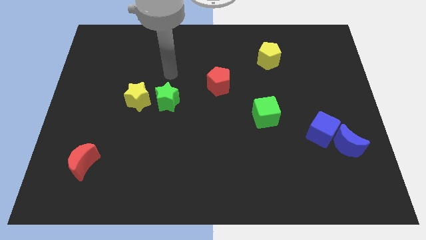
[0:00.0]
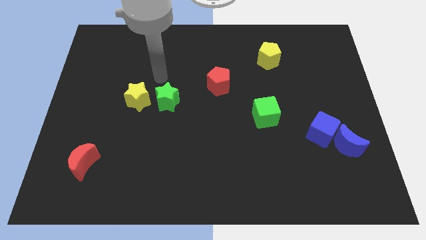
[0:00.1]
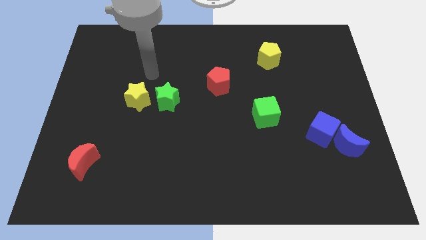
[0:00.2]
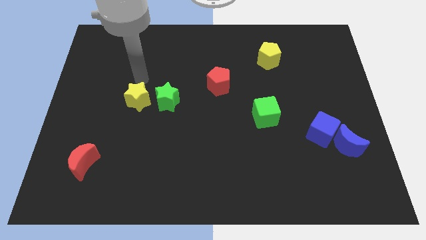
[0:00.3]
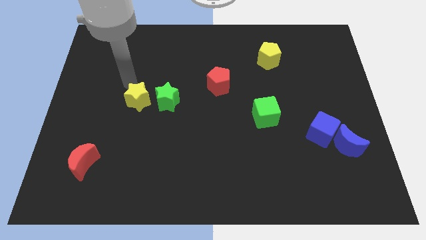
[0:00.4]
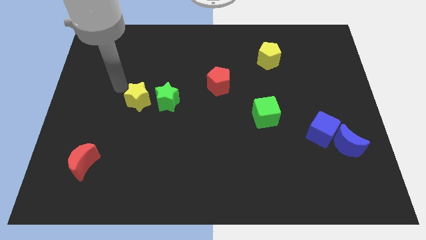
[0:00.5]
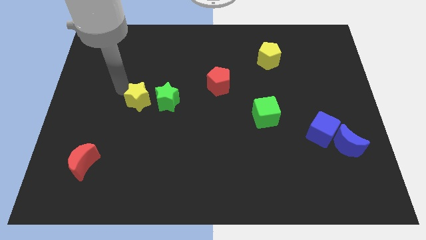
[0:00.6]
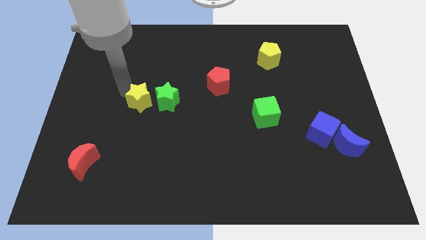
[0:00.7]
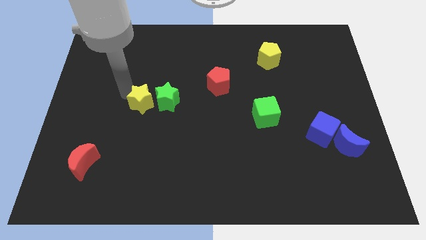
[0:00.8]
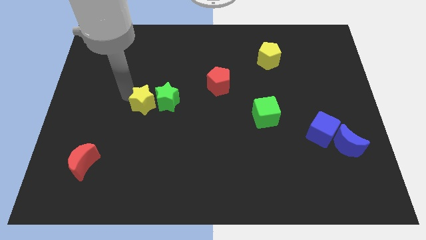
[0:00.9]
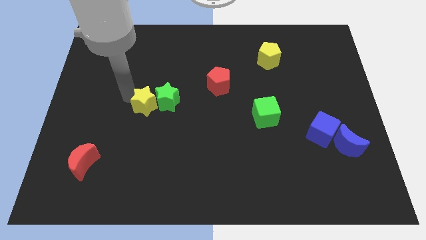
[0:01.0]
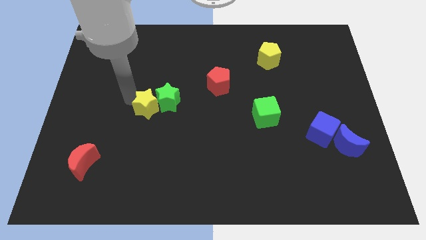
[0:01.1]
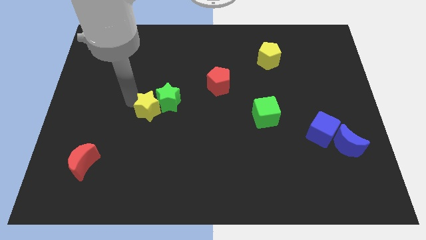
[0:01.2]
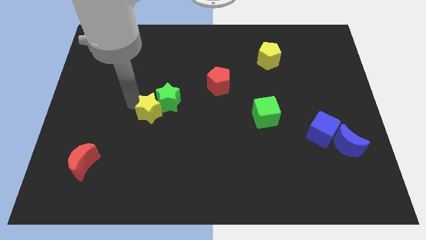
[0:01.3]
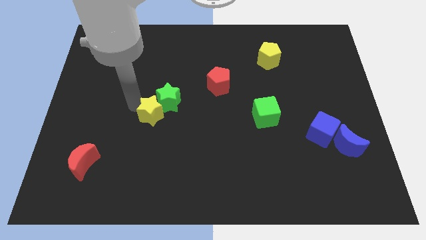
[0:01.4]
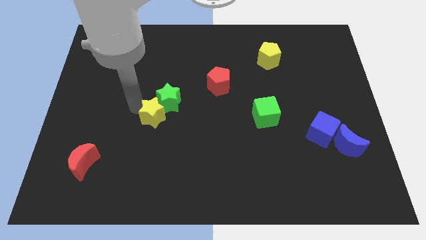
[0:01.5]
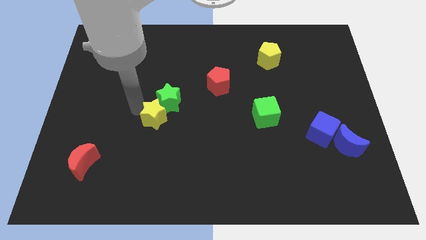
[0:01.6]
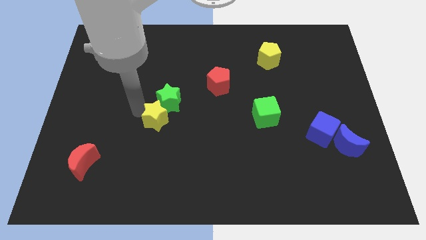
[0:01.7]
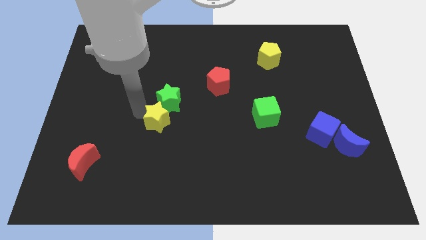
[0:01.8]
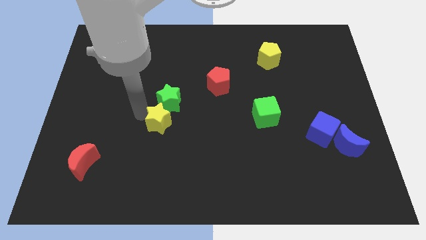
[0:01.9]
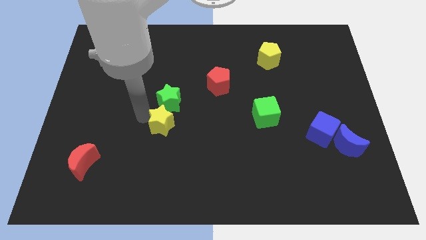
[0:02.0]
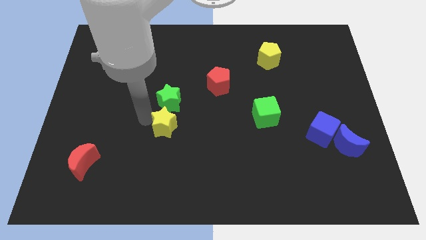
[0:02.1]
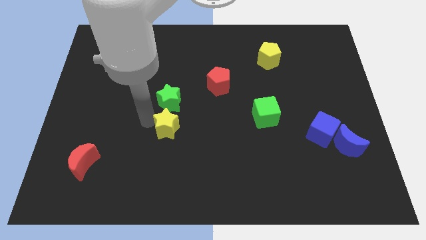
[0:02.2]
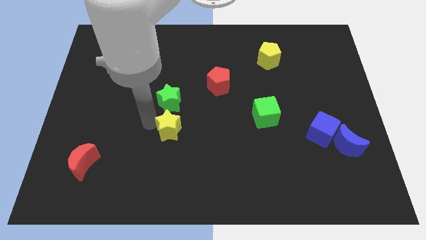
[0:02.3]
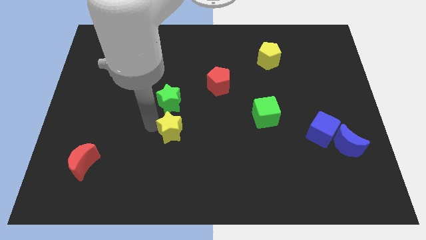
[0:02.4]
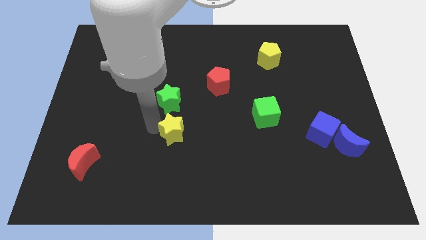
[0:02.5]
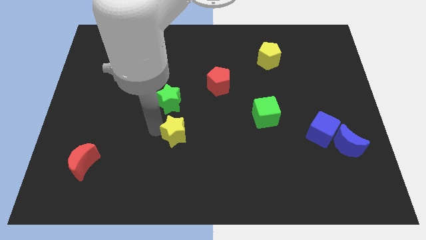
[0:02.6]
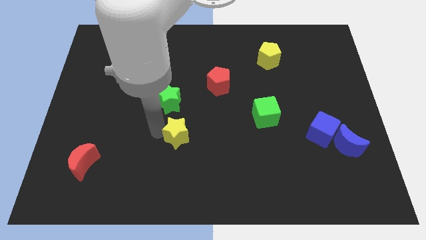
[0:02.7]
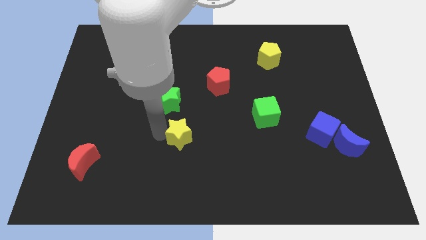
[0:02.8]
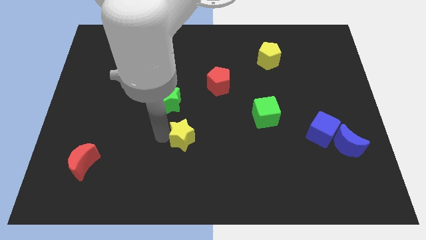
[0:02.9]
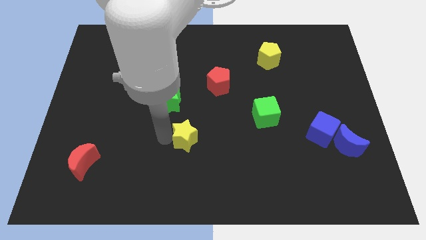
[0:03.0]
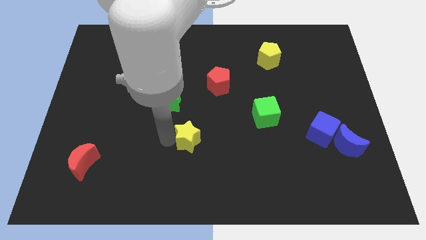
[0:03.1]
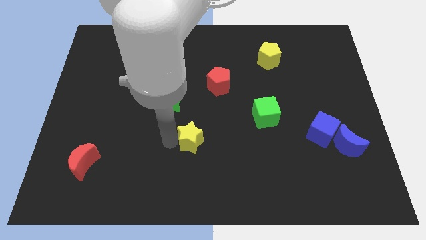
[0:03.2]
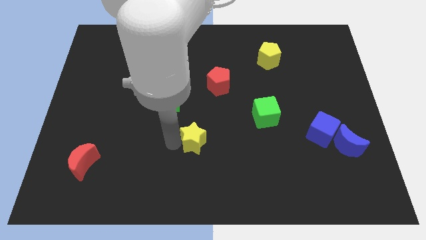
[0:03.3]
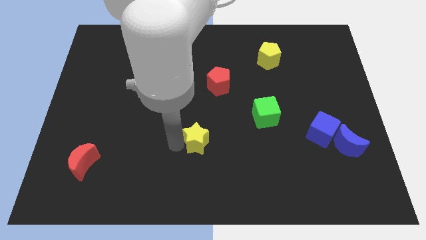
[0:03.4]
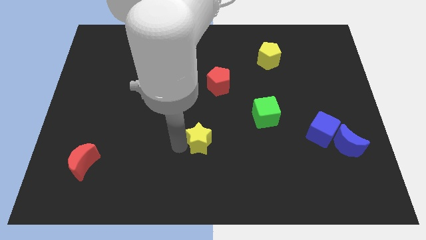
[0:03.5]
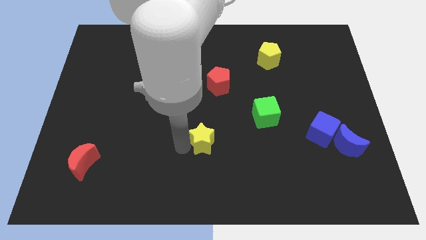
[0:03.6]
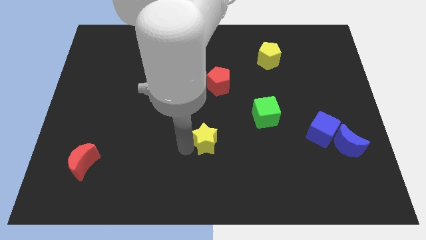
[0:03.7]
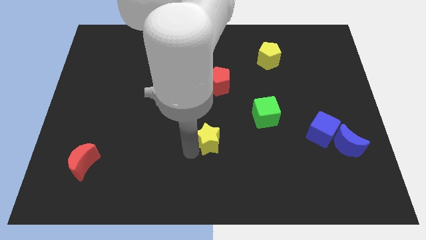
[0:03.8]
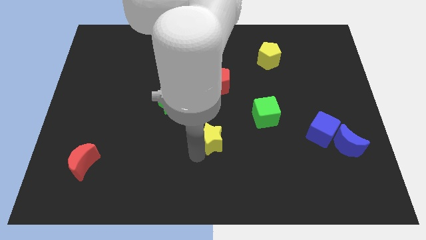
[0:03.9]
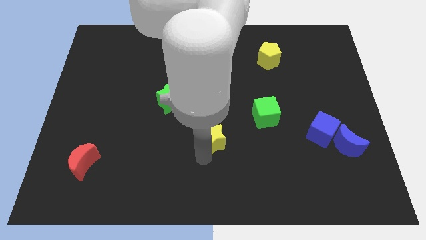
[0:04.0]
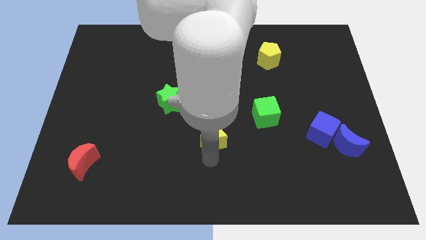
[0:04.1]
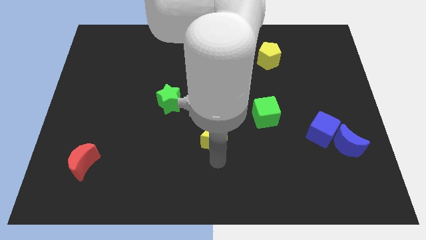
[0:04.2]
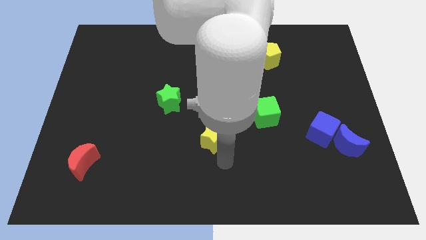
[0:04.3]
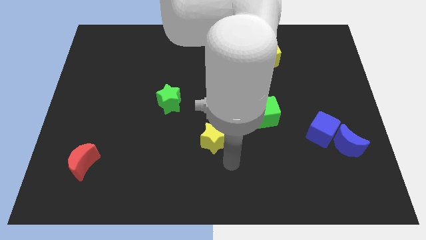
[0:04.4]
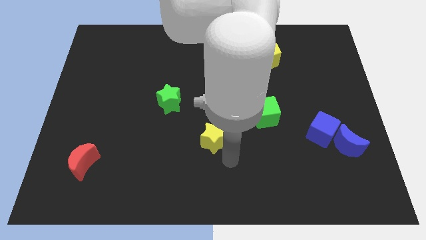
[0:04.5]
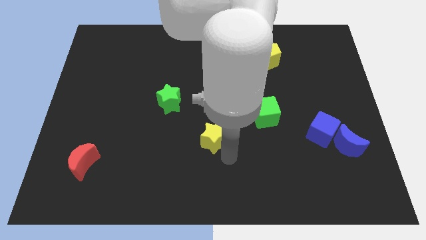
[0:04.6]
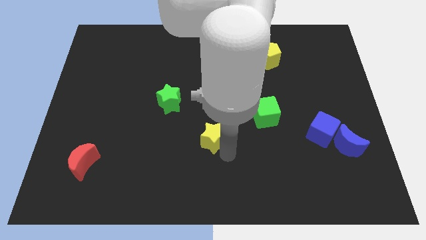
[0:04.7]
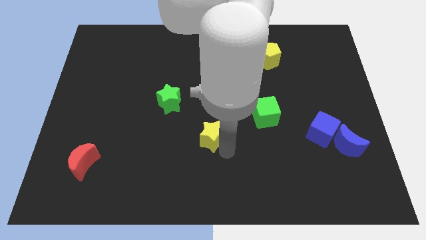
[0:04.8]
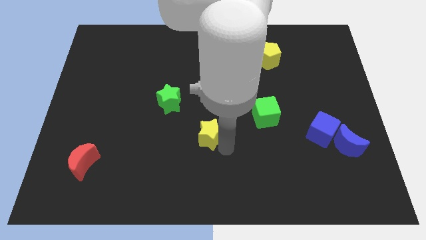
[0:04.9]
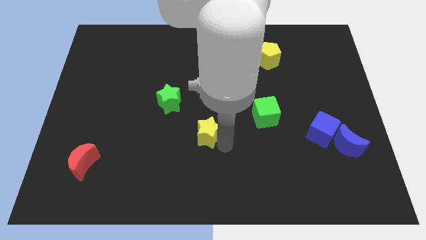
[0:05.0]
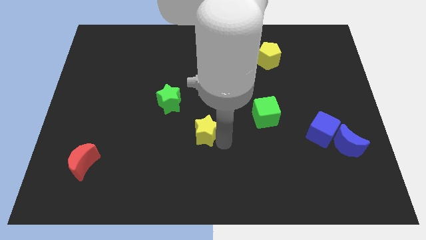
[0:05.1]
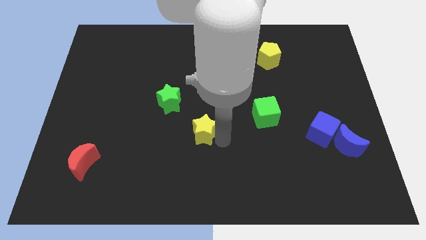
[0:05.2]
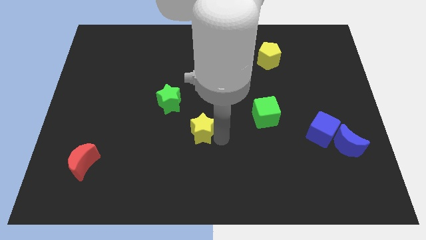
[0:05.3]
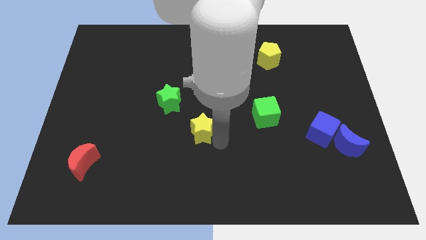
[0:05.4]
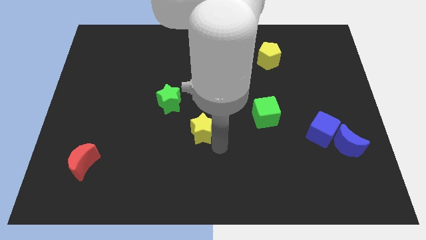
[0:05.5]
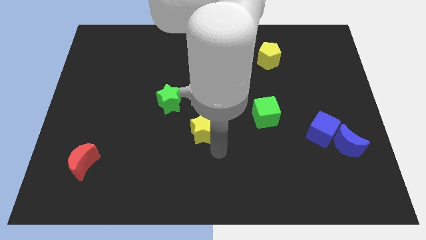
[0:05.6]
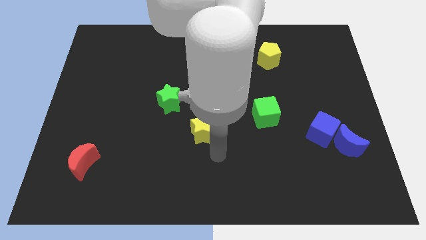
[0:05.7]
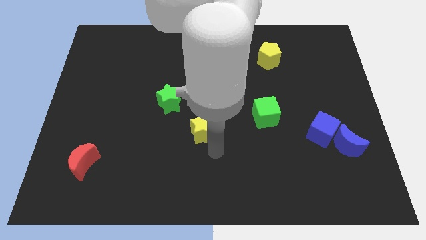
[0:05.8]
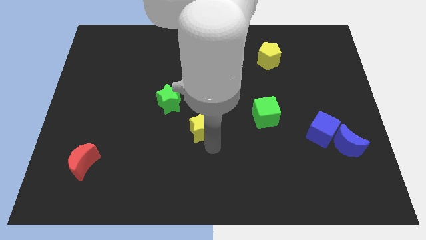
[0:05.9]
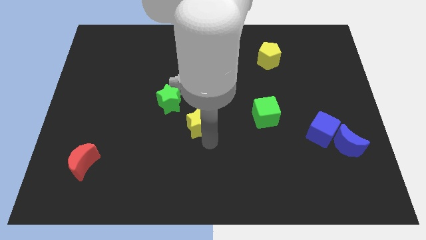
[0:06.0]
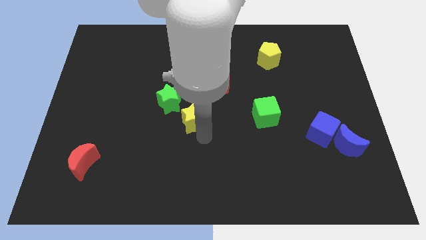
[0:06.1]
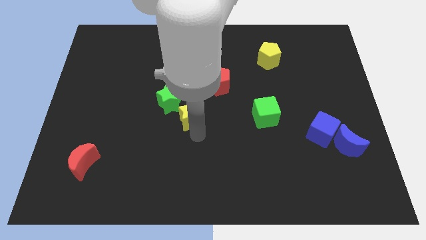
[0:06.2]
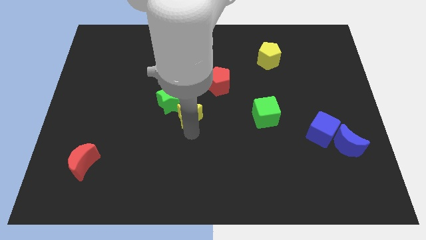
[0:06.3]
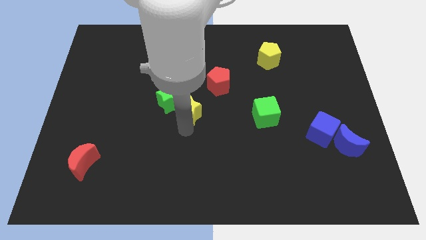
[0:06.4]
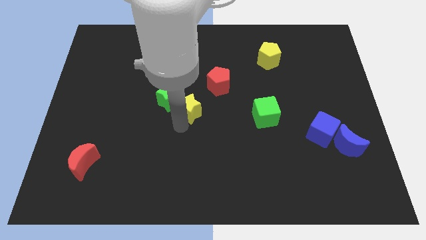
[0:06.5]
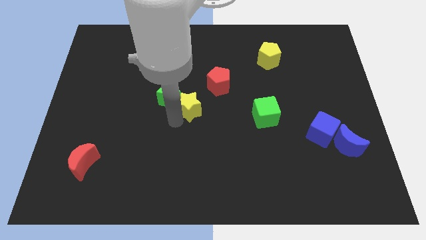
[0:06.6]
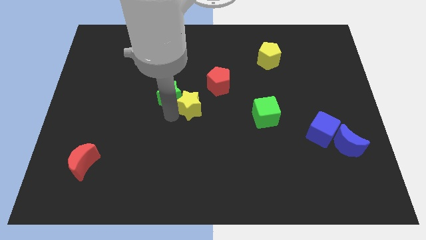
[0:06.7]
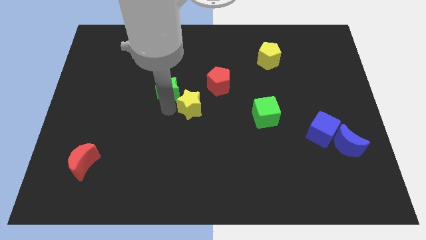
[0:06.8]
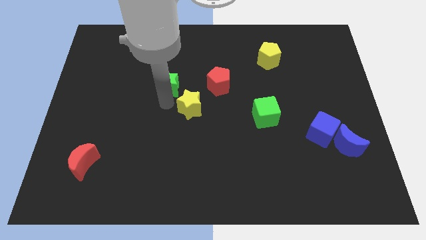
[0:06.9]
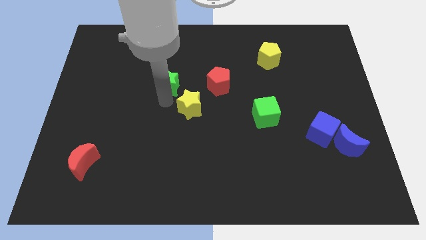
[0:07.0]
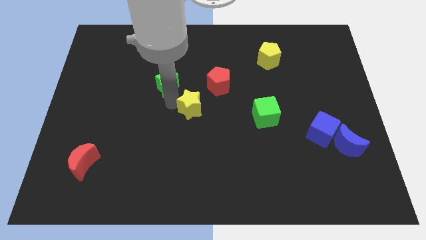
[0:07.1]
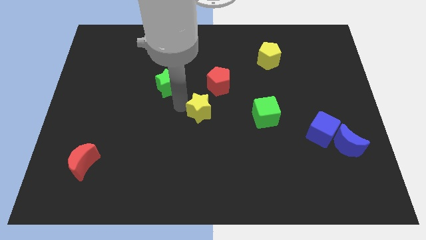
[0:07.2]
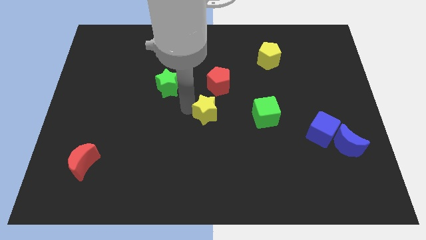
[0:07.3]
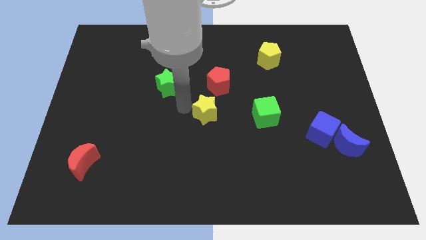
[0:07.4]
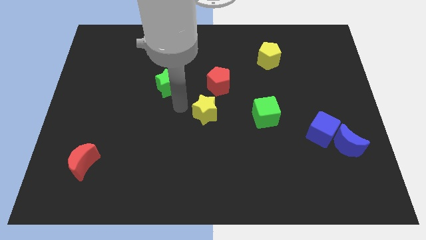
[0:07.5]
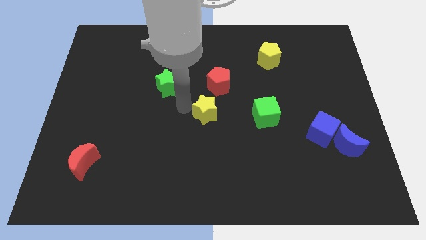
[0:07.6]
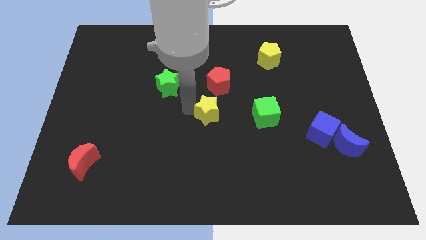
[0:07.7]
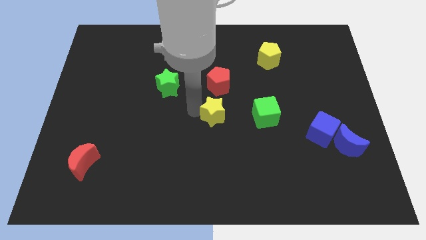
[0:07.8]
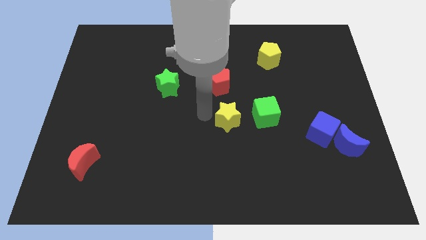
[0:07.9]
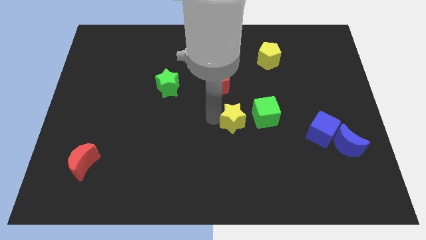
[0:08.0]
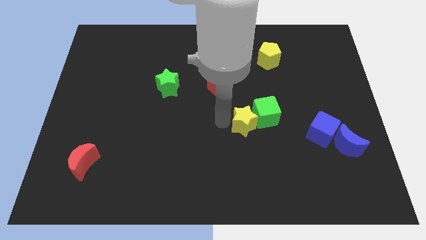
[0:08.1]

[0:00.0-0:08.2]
push the yellow star towards the green cube
